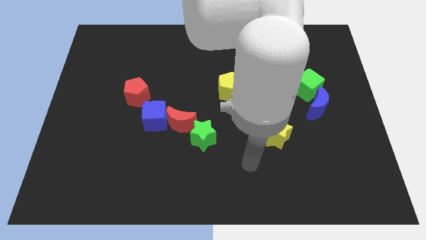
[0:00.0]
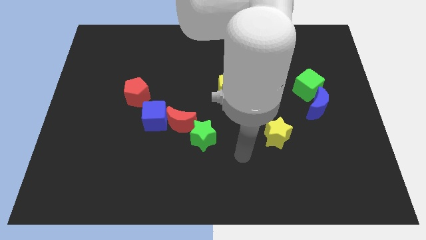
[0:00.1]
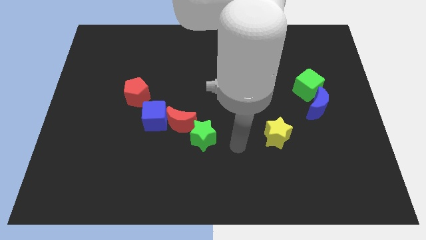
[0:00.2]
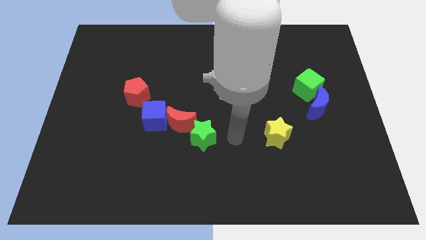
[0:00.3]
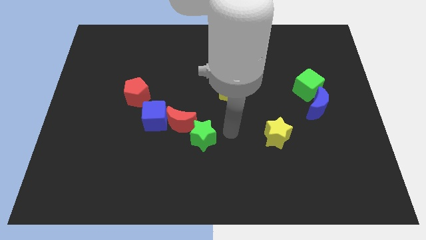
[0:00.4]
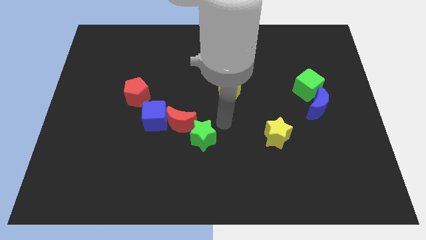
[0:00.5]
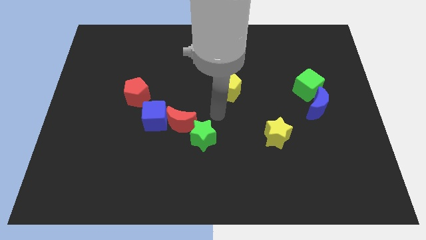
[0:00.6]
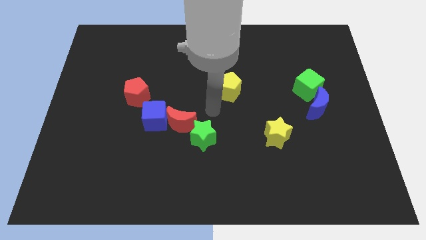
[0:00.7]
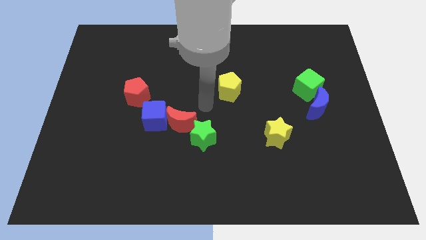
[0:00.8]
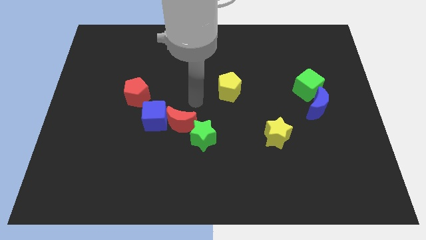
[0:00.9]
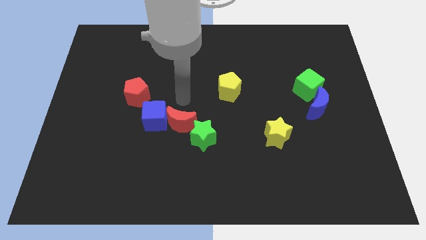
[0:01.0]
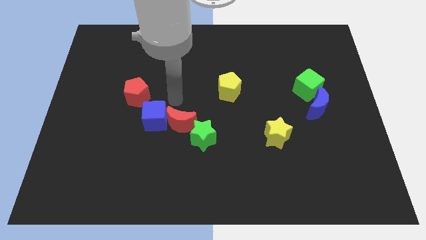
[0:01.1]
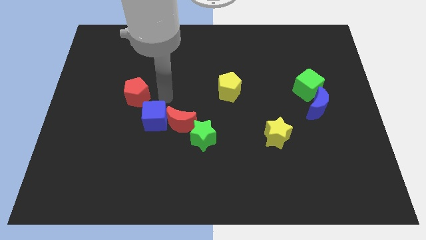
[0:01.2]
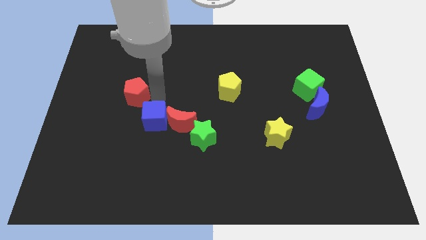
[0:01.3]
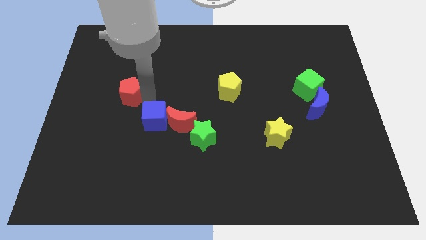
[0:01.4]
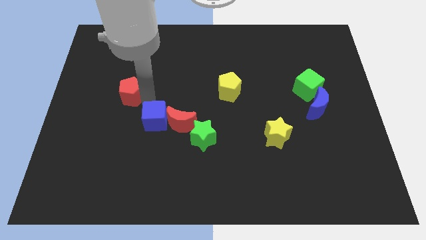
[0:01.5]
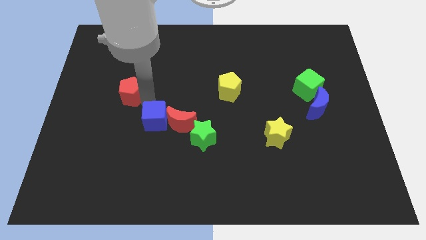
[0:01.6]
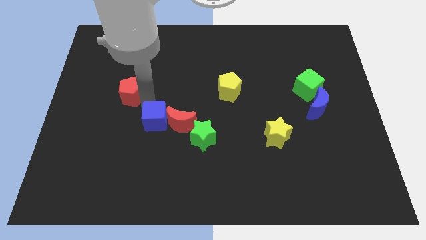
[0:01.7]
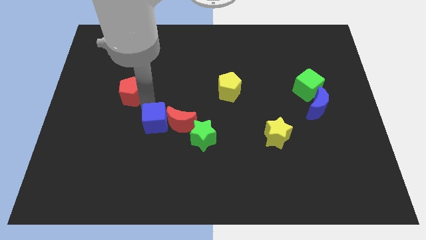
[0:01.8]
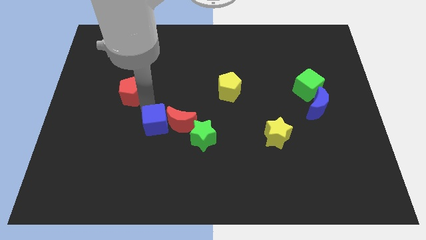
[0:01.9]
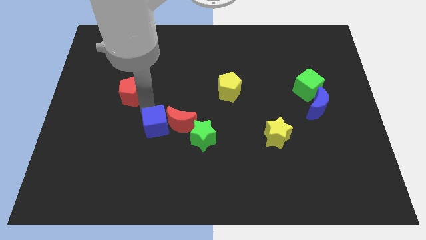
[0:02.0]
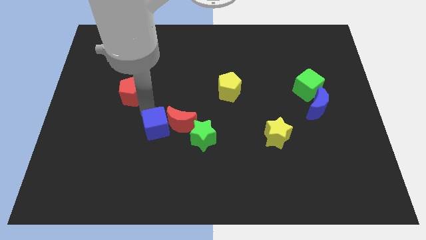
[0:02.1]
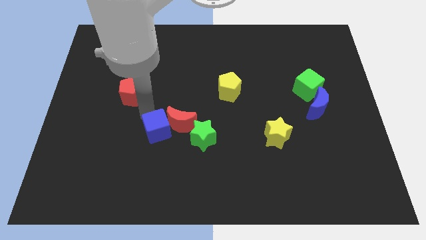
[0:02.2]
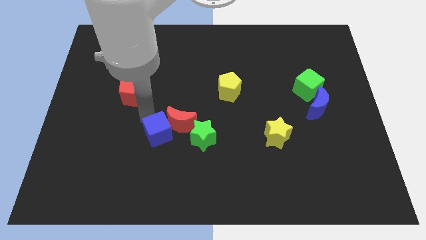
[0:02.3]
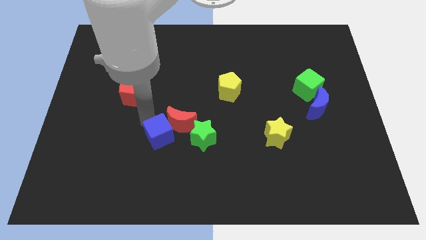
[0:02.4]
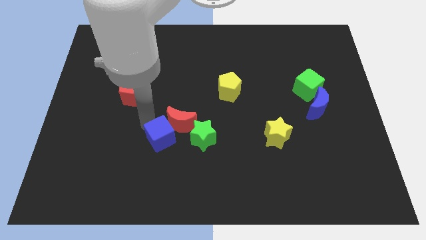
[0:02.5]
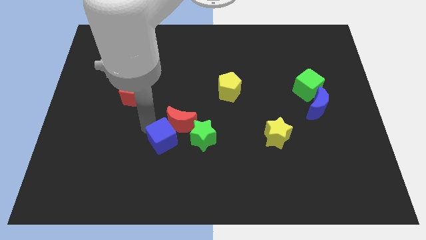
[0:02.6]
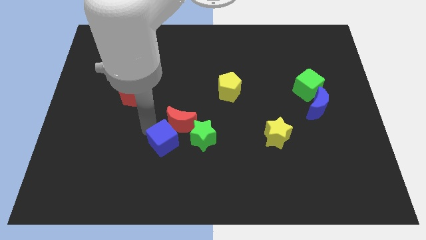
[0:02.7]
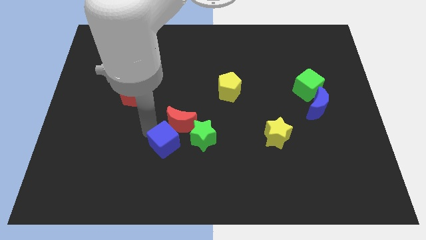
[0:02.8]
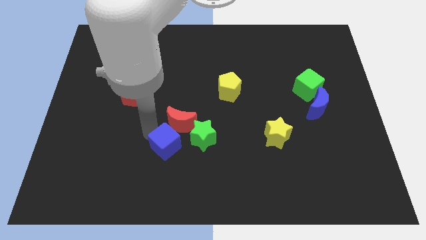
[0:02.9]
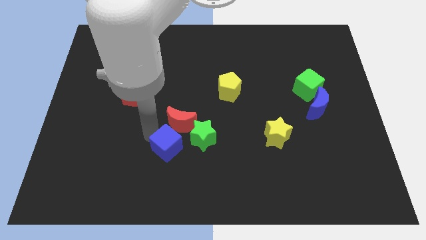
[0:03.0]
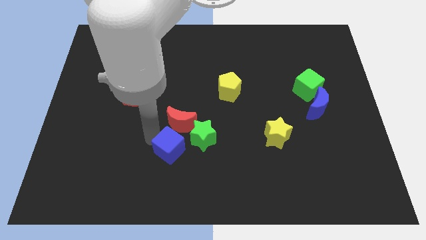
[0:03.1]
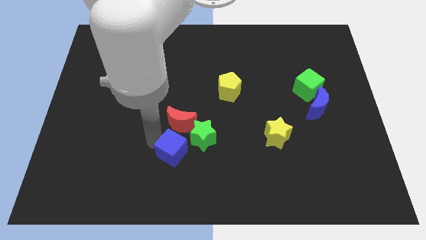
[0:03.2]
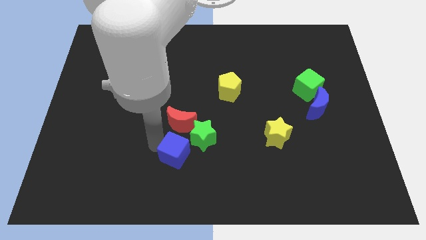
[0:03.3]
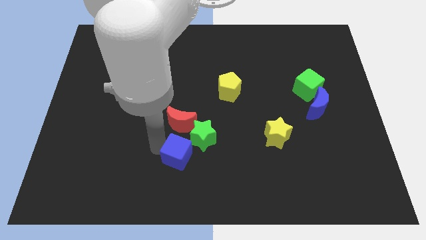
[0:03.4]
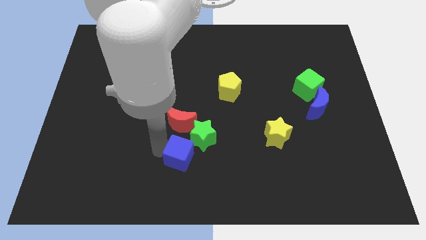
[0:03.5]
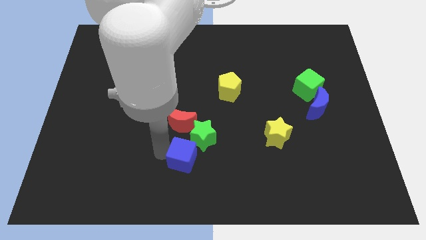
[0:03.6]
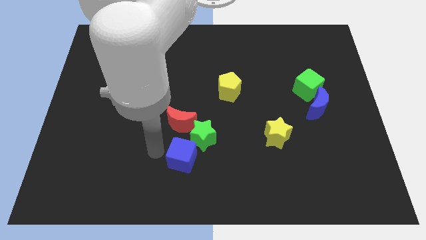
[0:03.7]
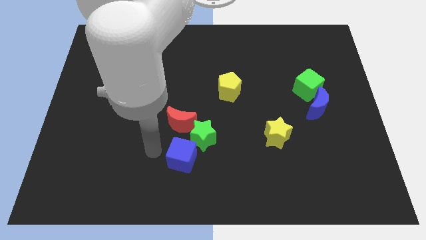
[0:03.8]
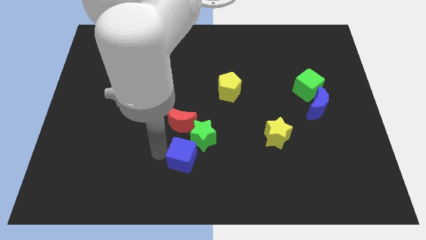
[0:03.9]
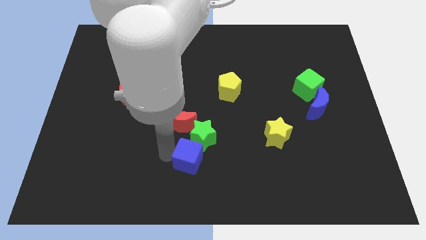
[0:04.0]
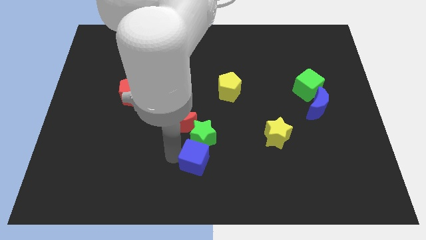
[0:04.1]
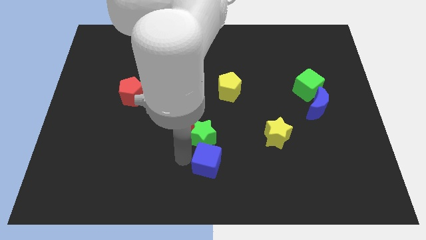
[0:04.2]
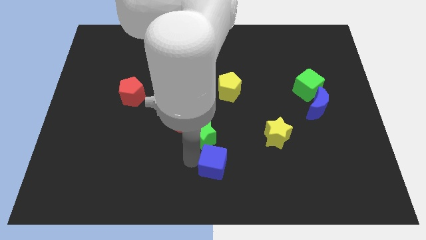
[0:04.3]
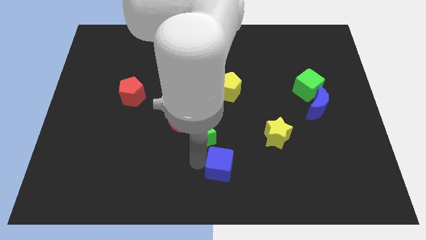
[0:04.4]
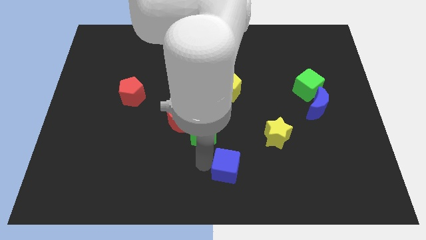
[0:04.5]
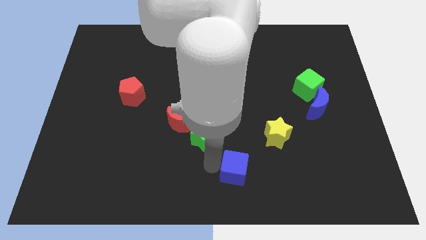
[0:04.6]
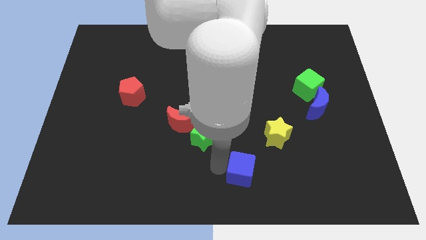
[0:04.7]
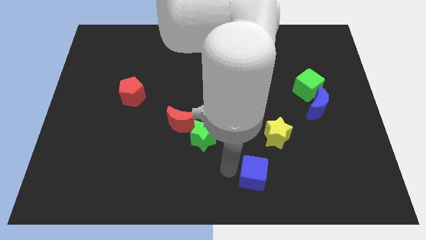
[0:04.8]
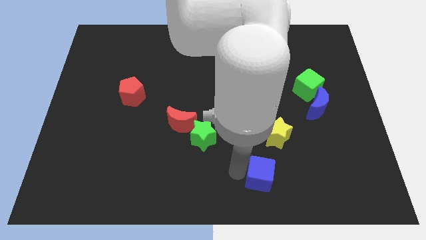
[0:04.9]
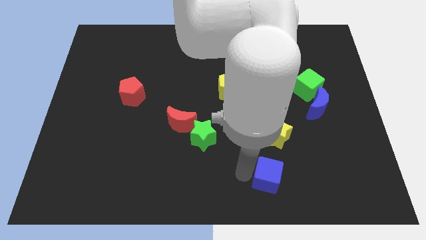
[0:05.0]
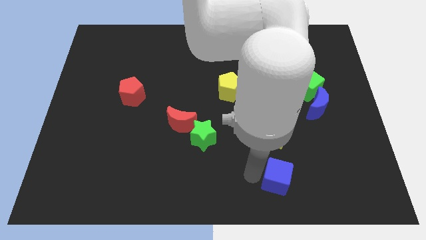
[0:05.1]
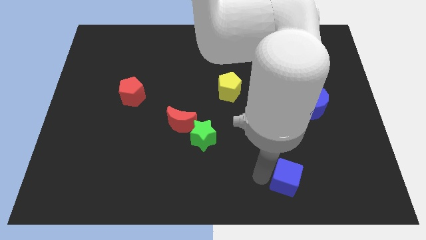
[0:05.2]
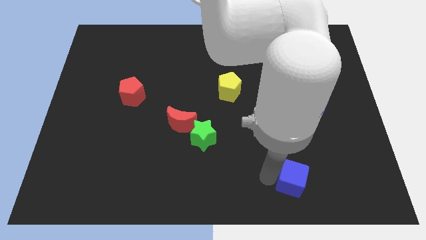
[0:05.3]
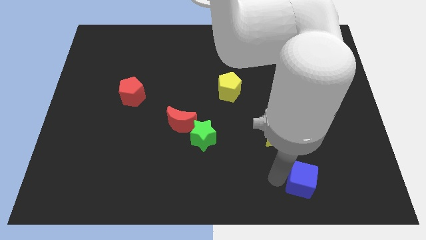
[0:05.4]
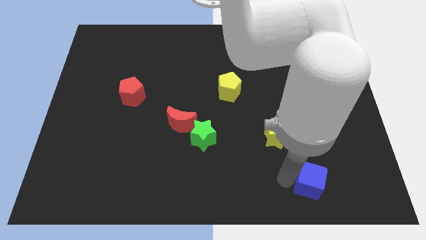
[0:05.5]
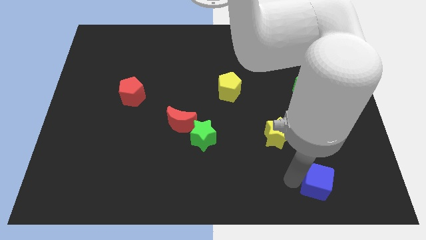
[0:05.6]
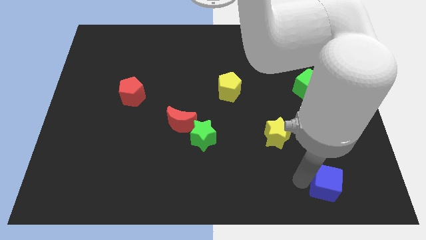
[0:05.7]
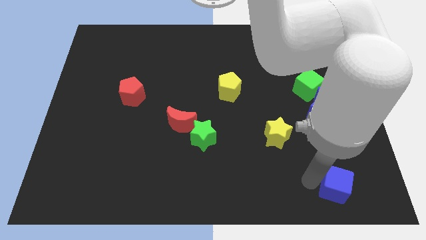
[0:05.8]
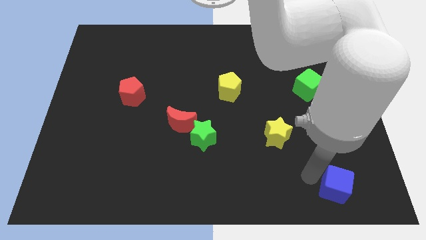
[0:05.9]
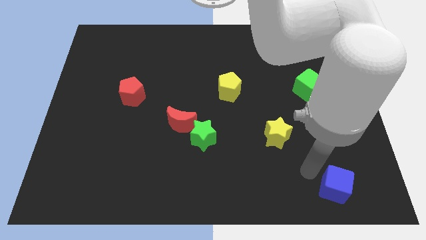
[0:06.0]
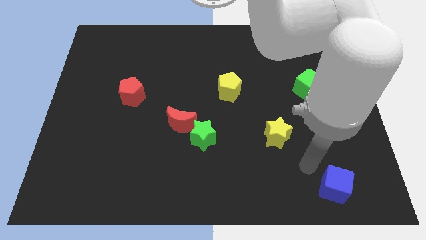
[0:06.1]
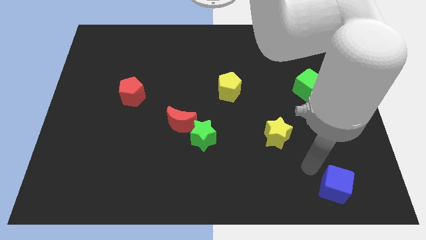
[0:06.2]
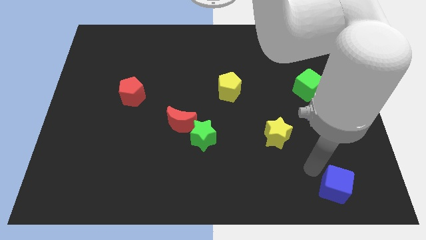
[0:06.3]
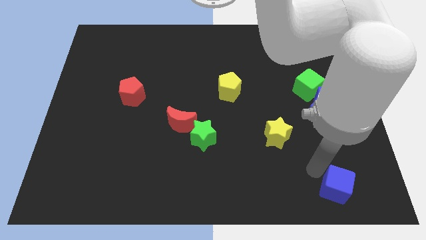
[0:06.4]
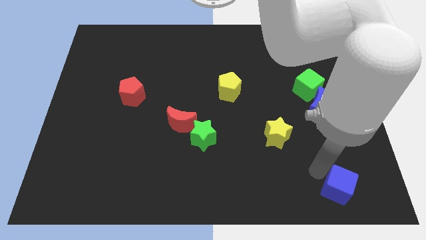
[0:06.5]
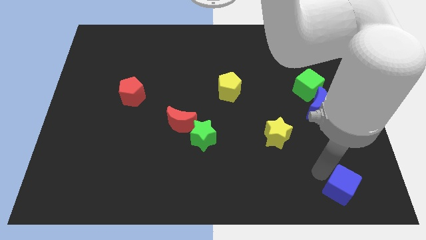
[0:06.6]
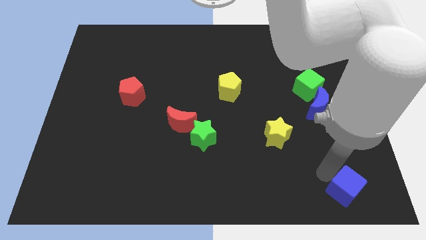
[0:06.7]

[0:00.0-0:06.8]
move the blue cube to the bottom right
